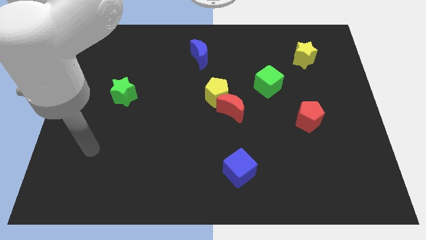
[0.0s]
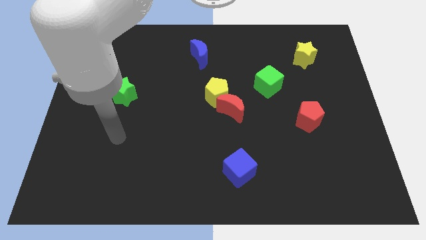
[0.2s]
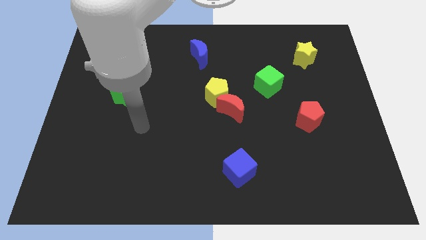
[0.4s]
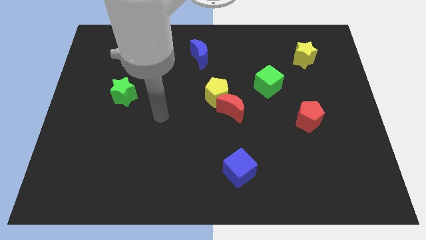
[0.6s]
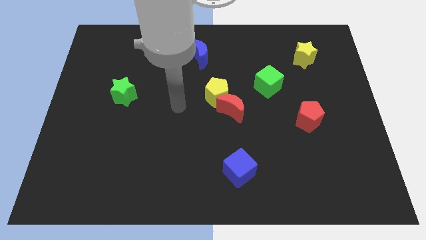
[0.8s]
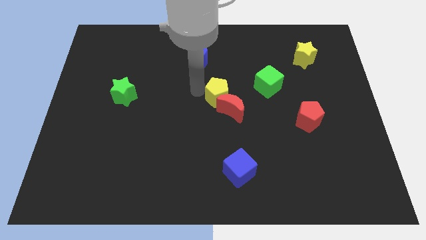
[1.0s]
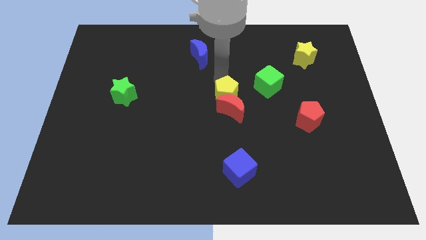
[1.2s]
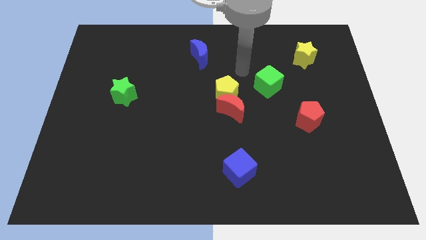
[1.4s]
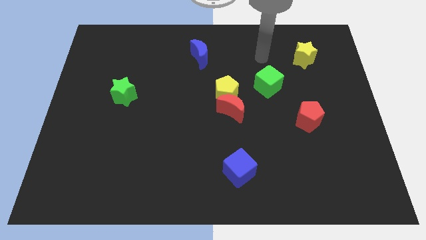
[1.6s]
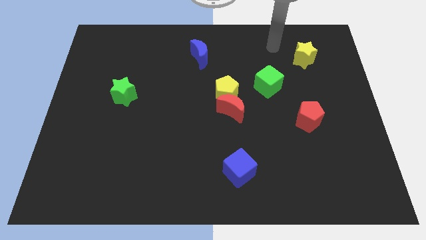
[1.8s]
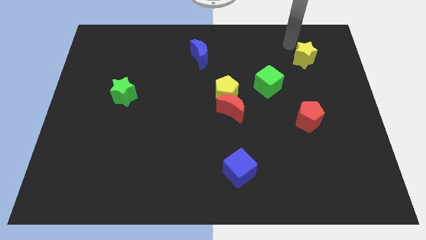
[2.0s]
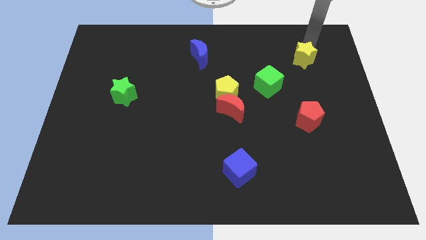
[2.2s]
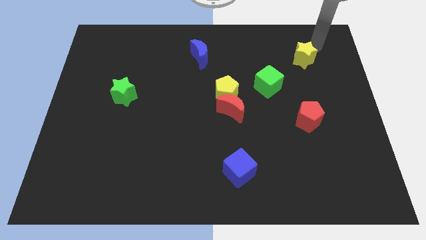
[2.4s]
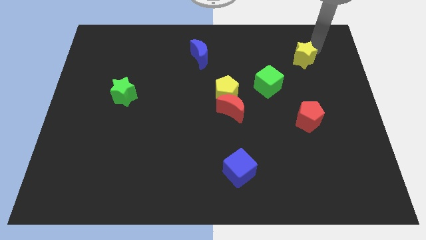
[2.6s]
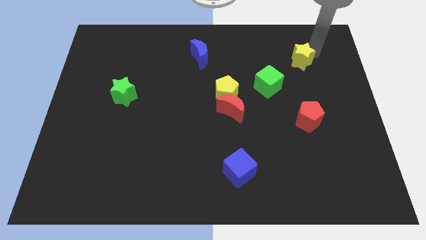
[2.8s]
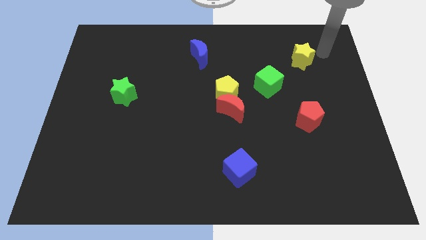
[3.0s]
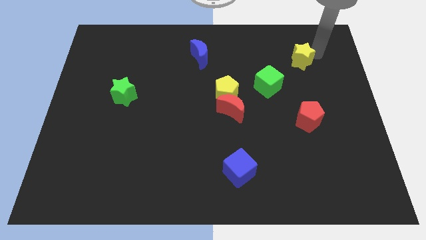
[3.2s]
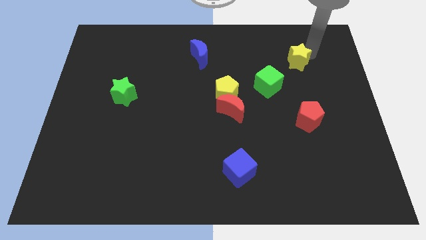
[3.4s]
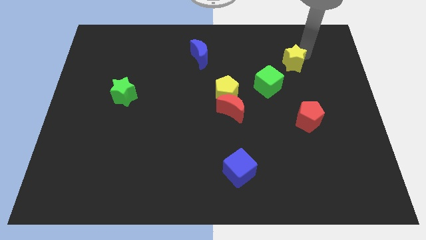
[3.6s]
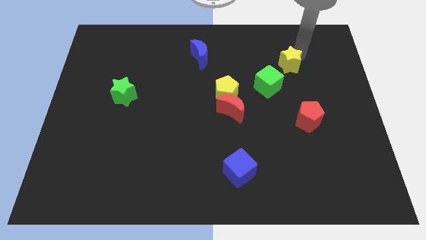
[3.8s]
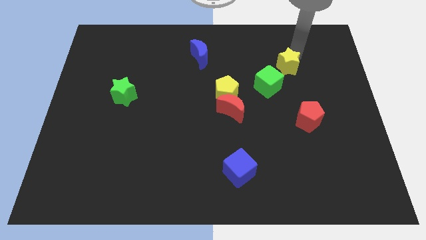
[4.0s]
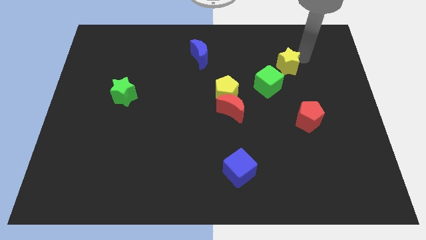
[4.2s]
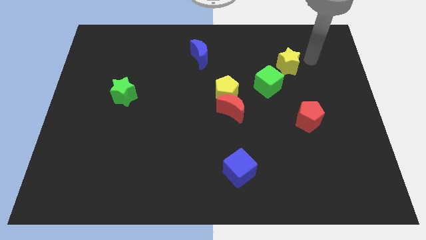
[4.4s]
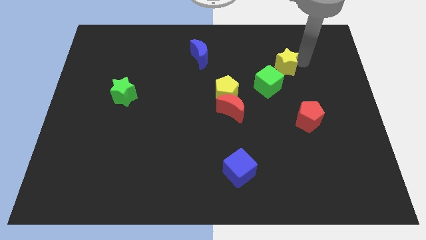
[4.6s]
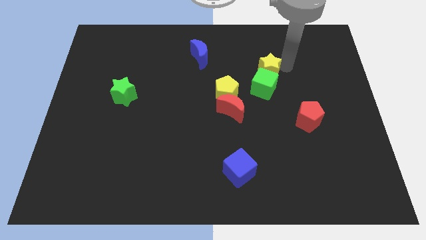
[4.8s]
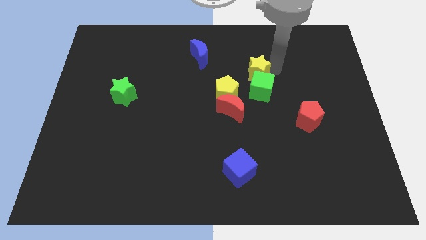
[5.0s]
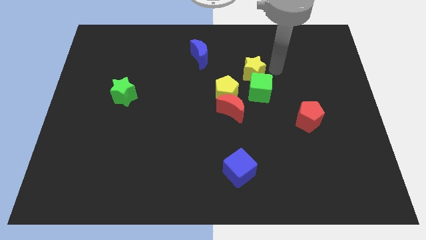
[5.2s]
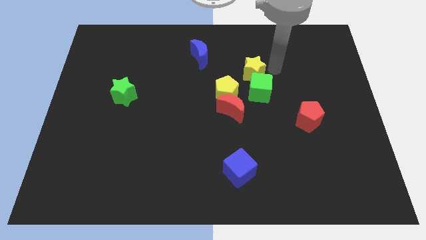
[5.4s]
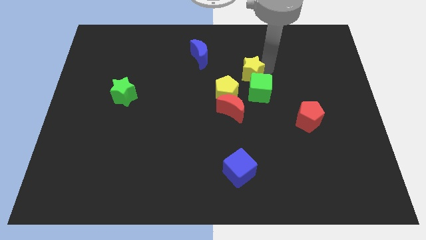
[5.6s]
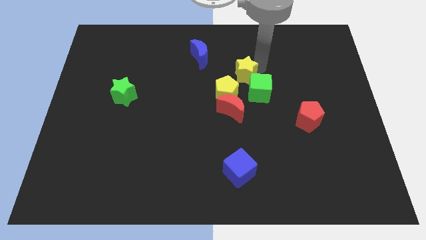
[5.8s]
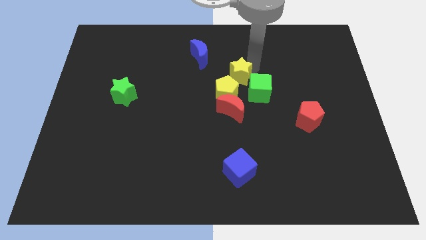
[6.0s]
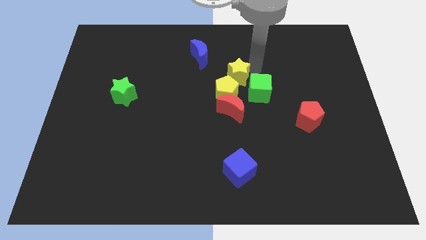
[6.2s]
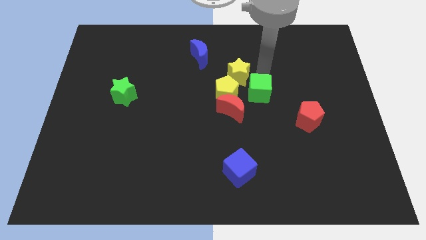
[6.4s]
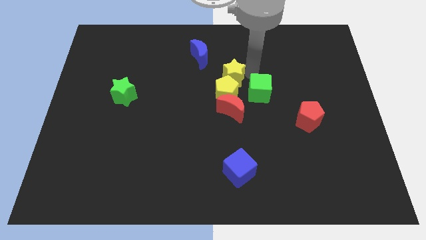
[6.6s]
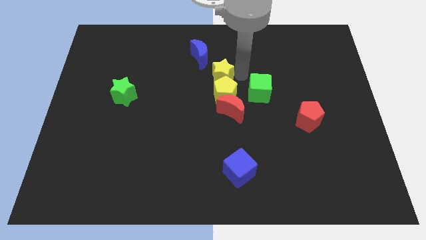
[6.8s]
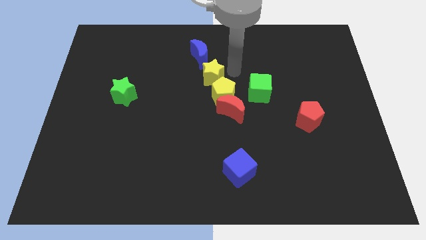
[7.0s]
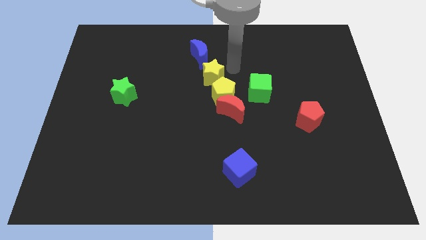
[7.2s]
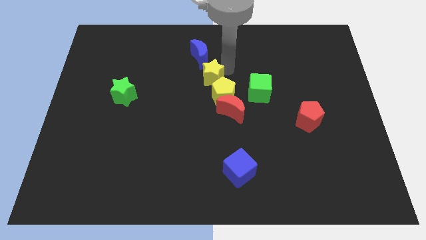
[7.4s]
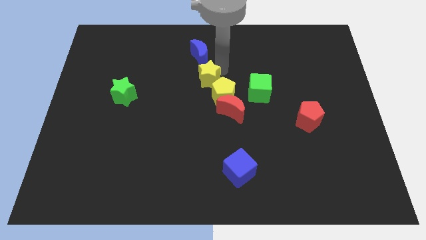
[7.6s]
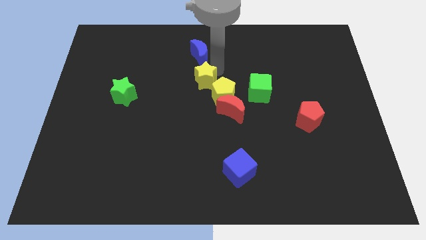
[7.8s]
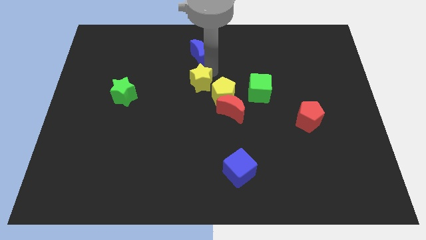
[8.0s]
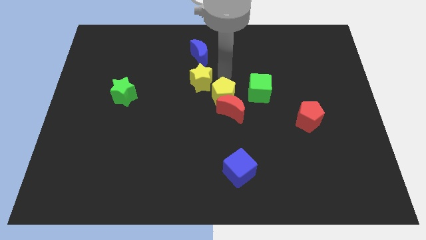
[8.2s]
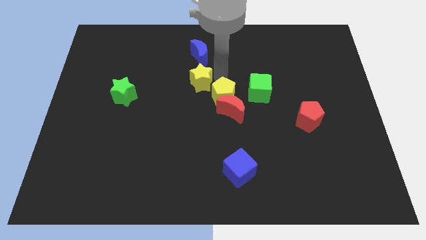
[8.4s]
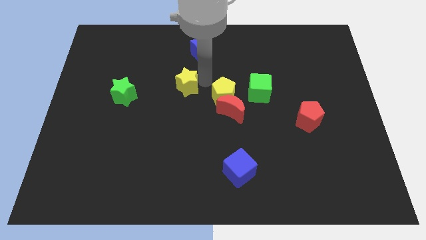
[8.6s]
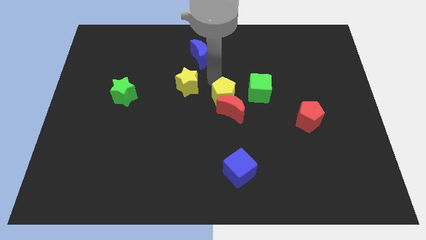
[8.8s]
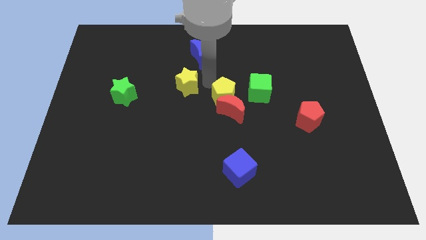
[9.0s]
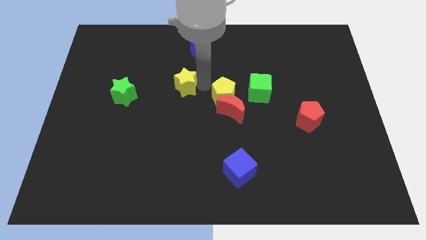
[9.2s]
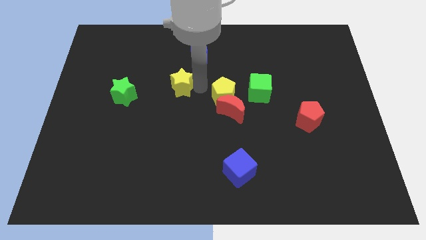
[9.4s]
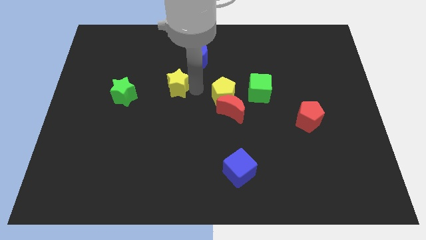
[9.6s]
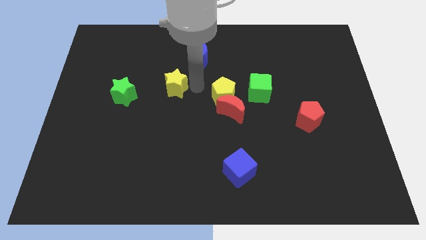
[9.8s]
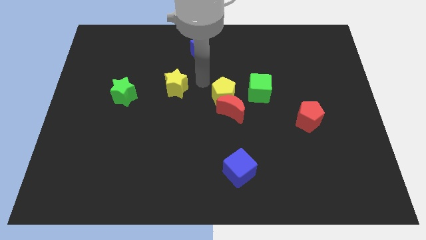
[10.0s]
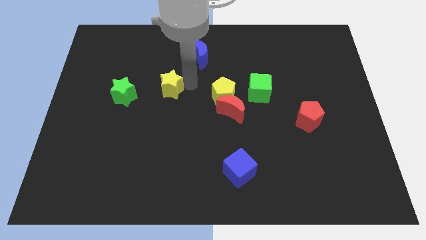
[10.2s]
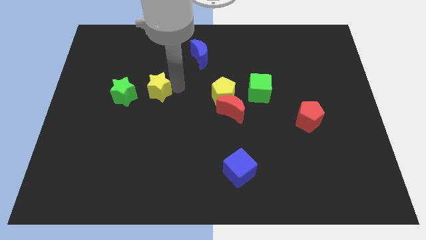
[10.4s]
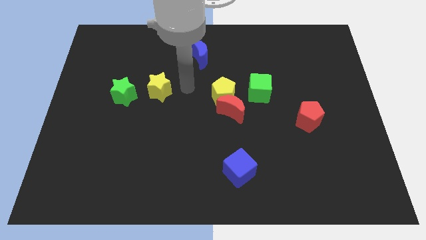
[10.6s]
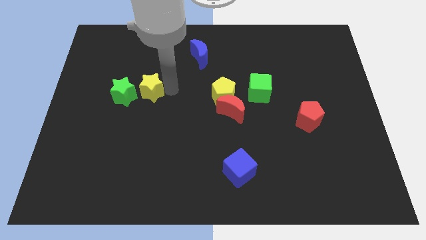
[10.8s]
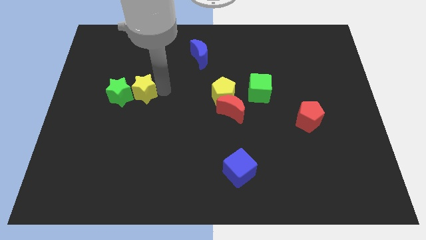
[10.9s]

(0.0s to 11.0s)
push the yellow star next to the green star

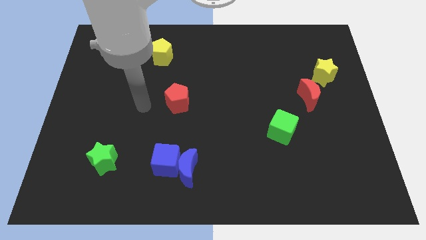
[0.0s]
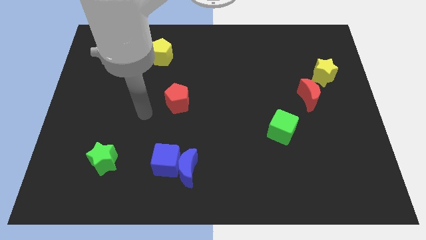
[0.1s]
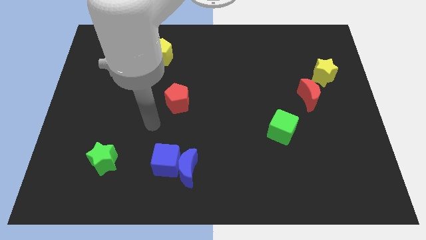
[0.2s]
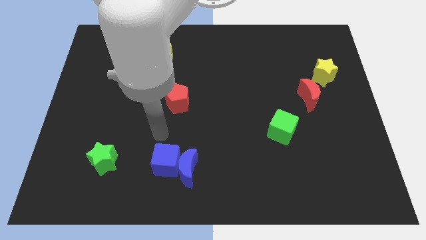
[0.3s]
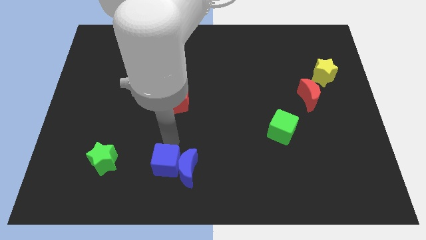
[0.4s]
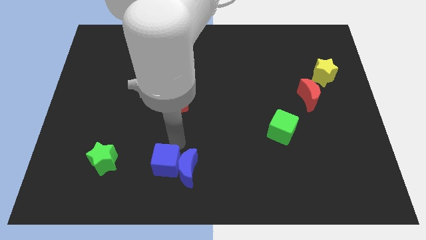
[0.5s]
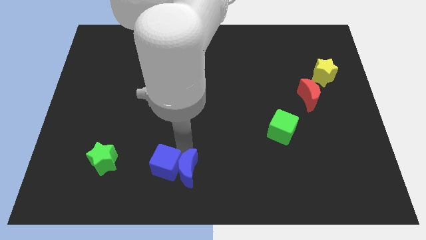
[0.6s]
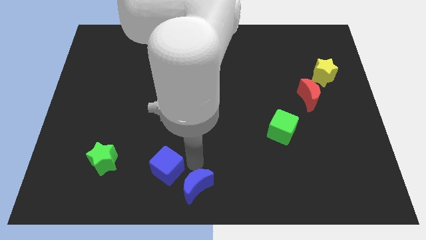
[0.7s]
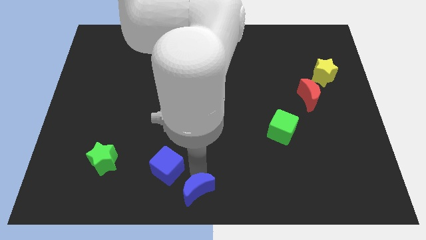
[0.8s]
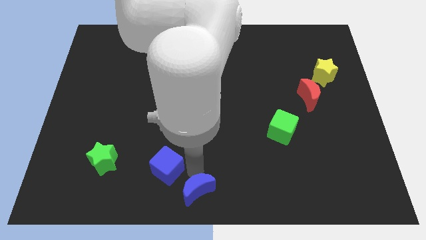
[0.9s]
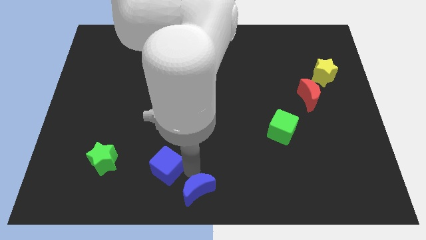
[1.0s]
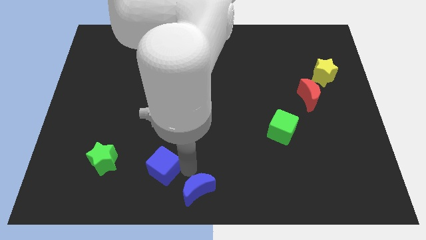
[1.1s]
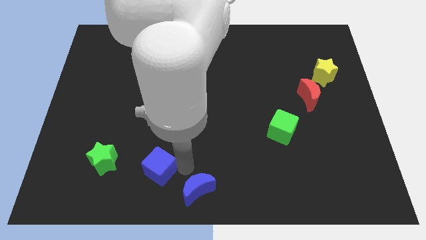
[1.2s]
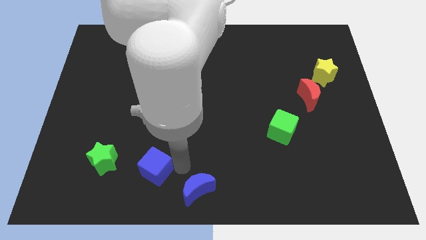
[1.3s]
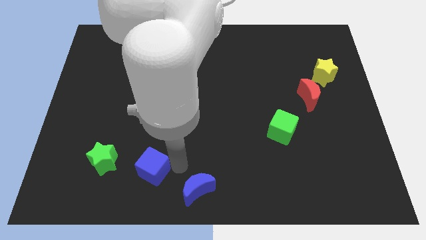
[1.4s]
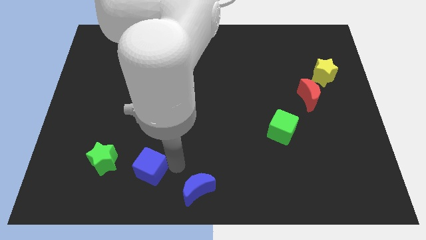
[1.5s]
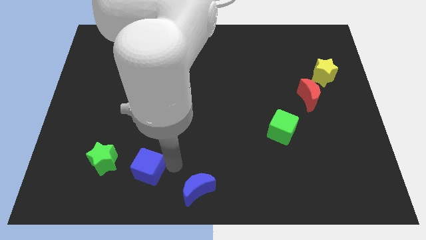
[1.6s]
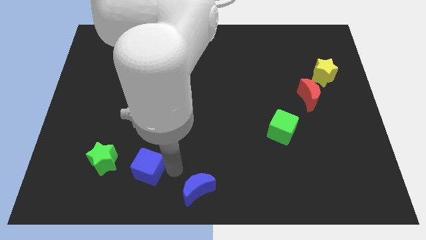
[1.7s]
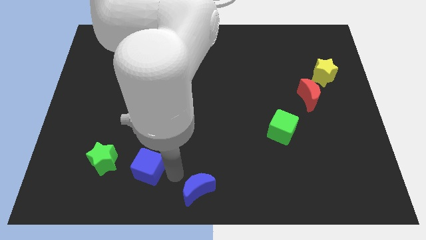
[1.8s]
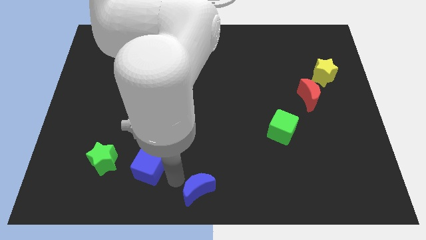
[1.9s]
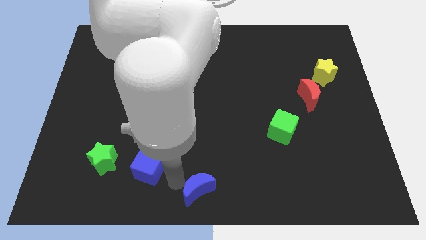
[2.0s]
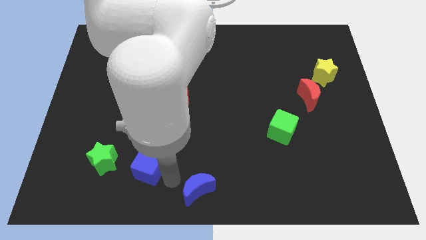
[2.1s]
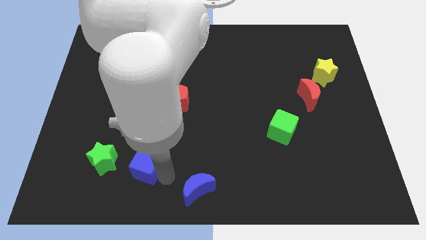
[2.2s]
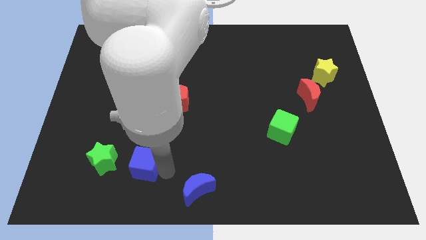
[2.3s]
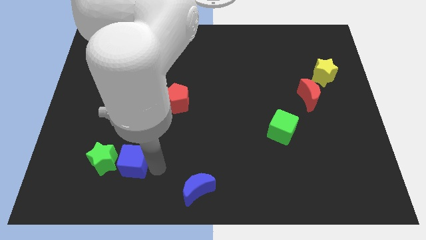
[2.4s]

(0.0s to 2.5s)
slide the blue cube to the green star
